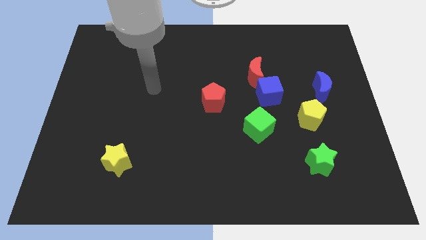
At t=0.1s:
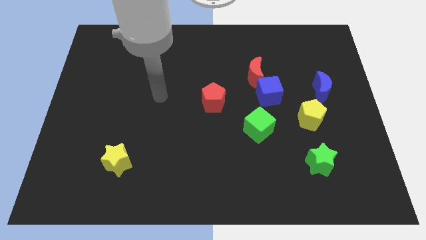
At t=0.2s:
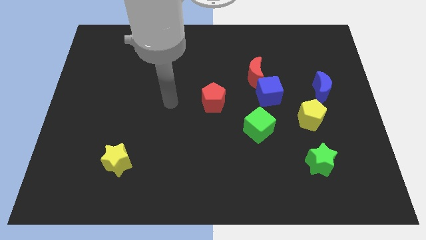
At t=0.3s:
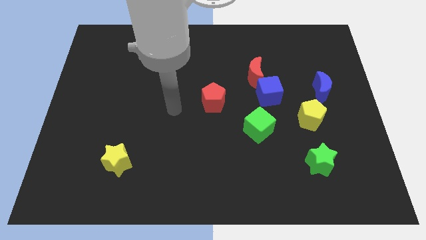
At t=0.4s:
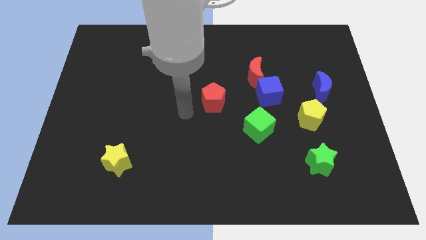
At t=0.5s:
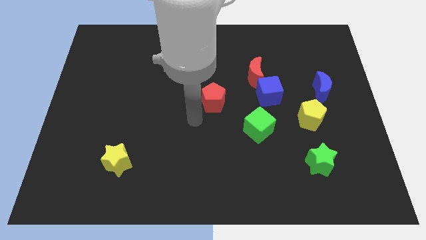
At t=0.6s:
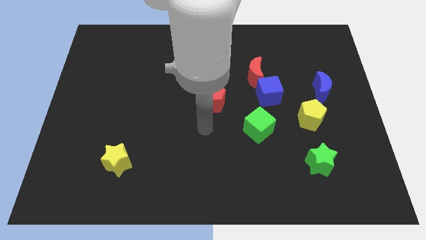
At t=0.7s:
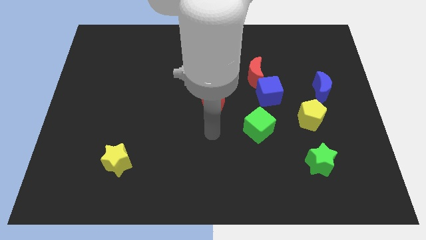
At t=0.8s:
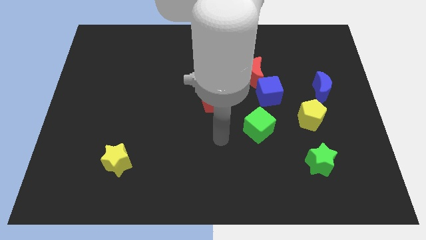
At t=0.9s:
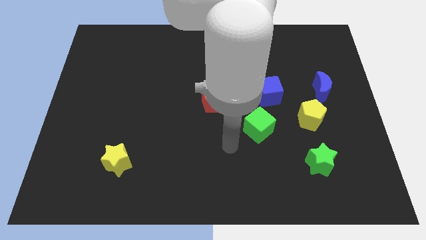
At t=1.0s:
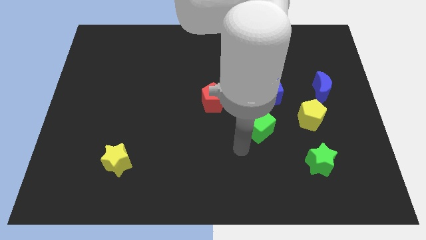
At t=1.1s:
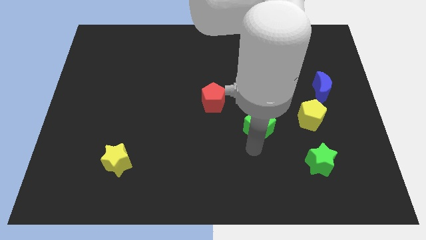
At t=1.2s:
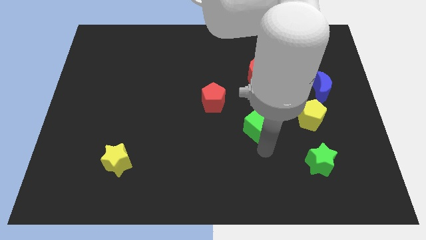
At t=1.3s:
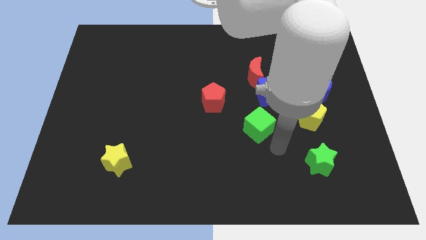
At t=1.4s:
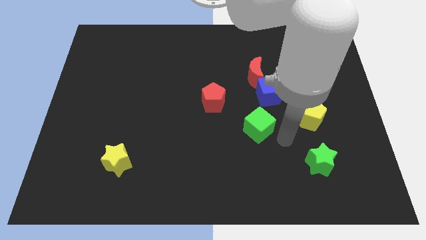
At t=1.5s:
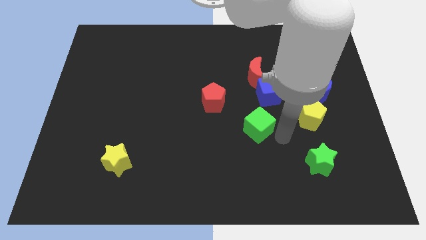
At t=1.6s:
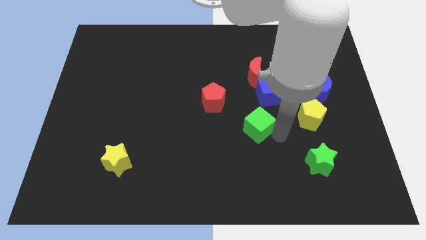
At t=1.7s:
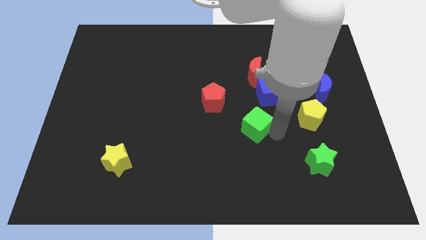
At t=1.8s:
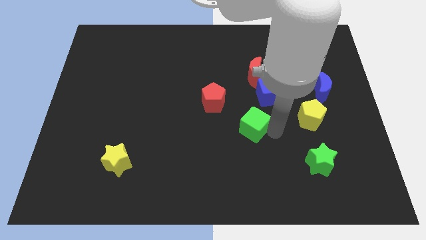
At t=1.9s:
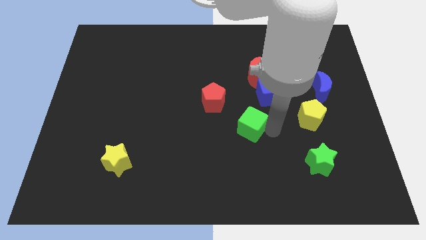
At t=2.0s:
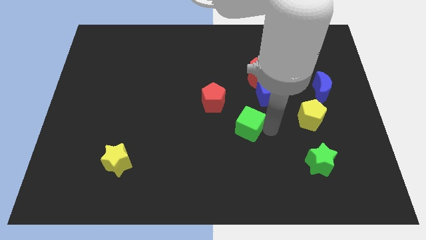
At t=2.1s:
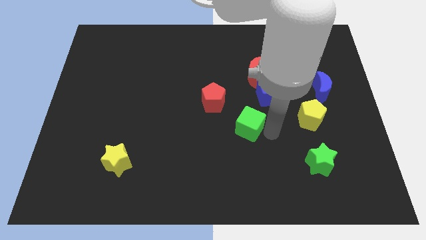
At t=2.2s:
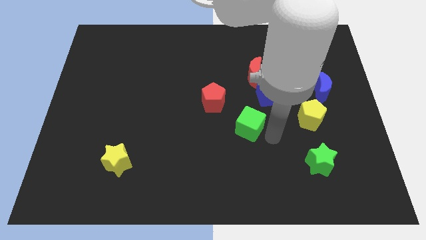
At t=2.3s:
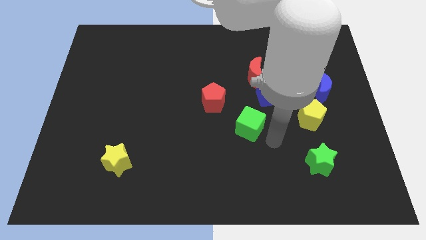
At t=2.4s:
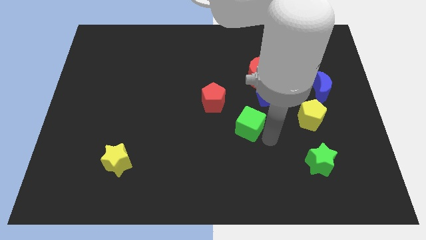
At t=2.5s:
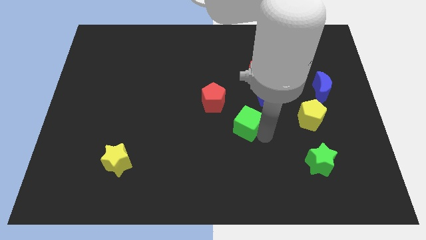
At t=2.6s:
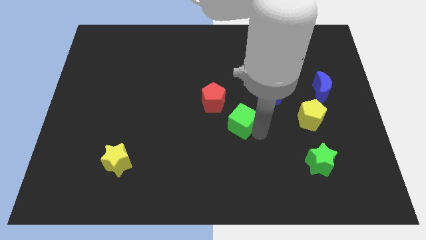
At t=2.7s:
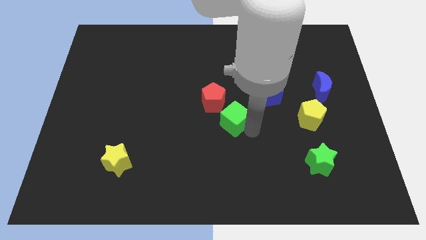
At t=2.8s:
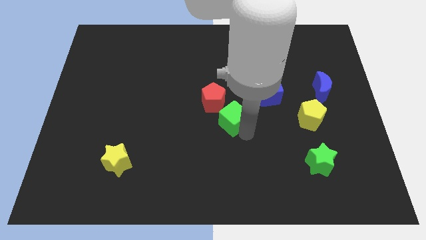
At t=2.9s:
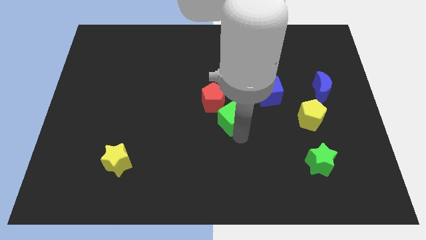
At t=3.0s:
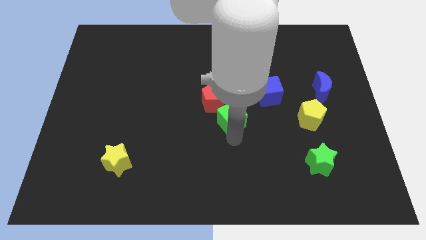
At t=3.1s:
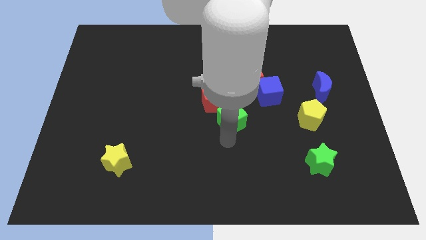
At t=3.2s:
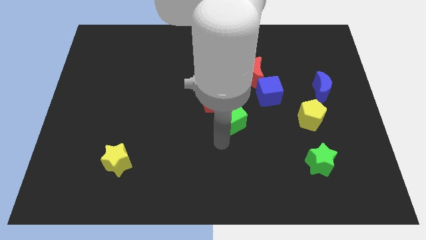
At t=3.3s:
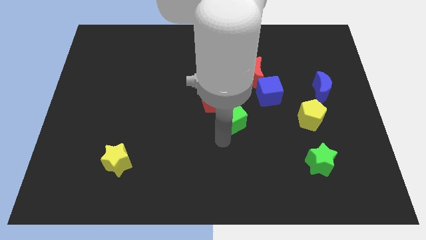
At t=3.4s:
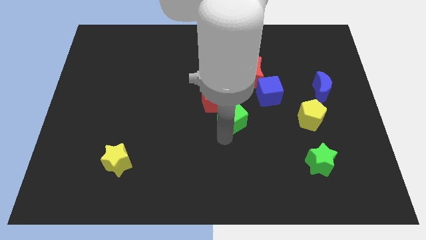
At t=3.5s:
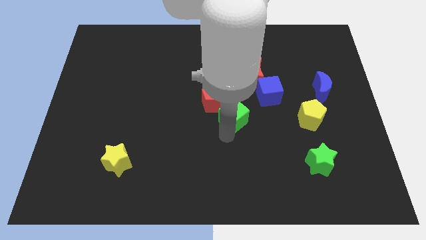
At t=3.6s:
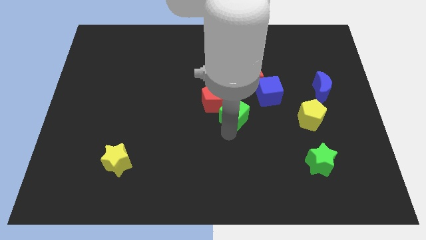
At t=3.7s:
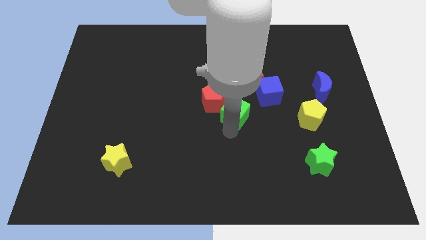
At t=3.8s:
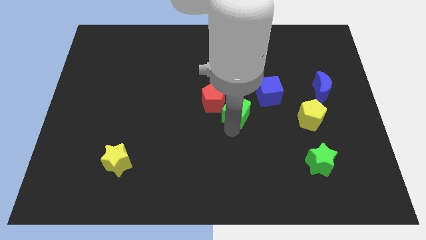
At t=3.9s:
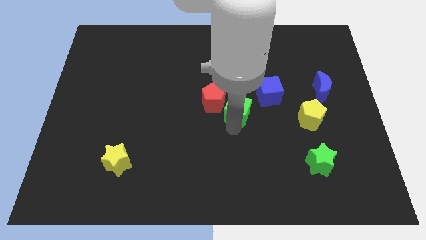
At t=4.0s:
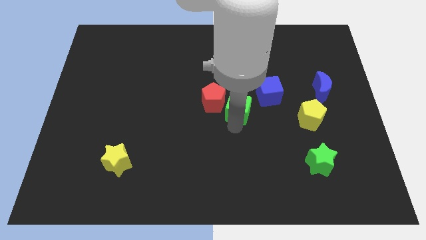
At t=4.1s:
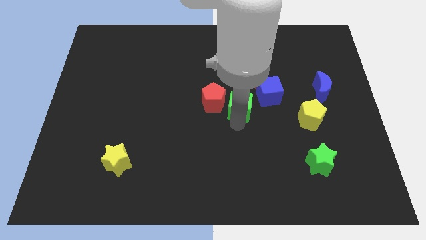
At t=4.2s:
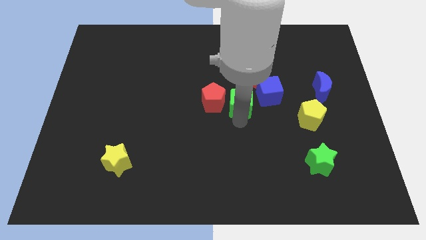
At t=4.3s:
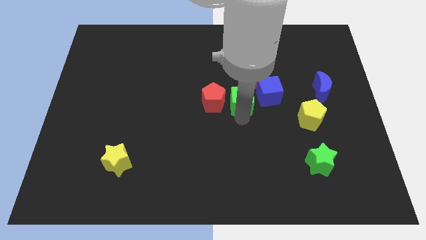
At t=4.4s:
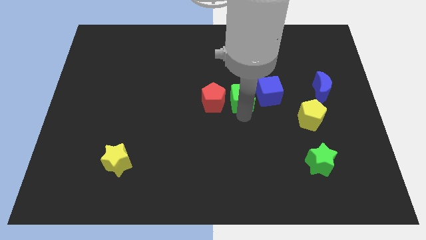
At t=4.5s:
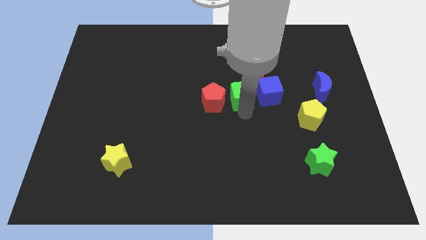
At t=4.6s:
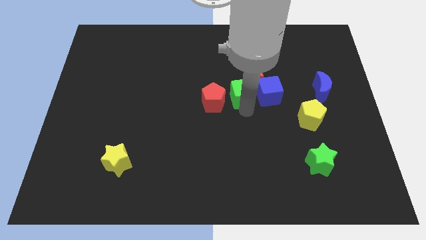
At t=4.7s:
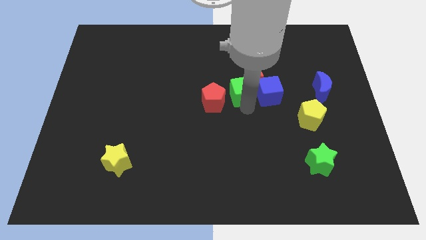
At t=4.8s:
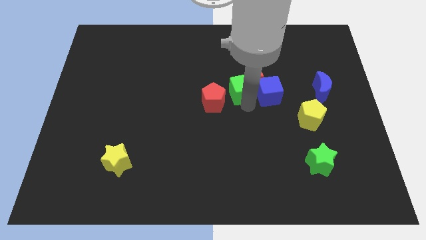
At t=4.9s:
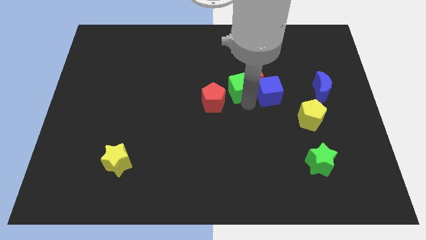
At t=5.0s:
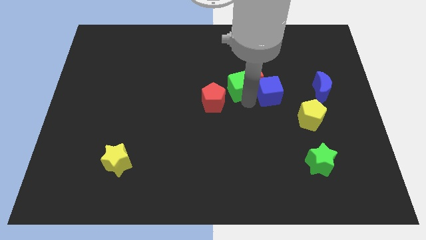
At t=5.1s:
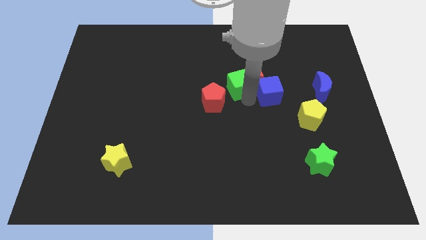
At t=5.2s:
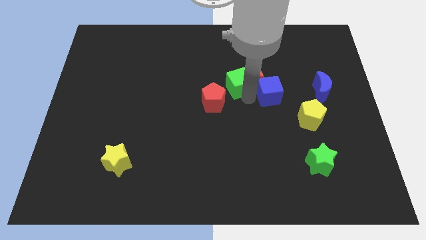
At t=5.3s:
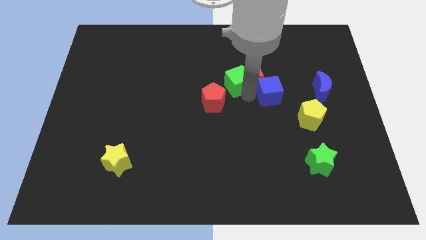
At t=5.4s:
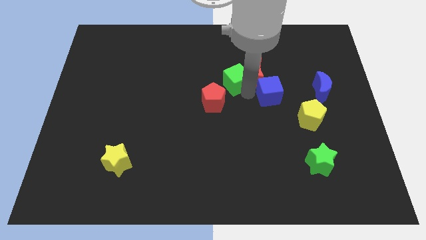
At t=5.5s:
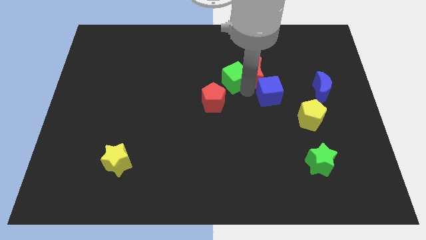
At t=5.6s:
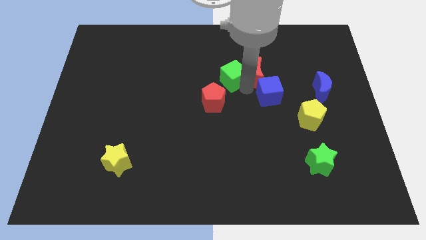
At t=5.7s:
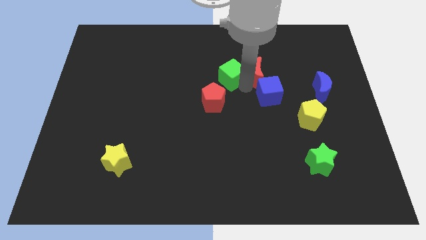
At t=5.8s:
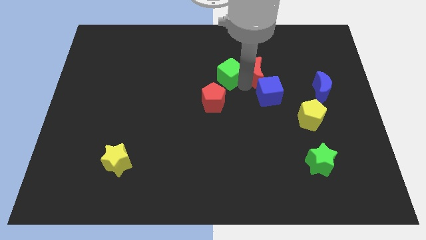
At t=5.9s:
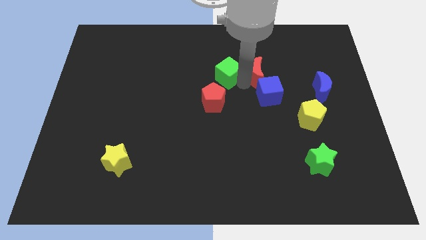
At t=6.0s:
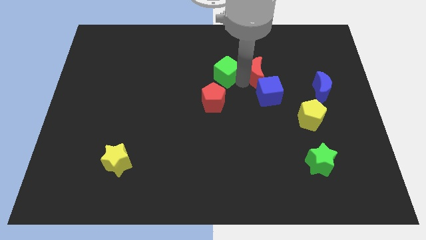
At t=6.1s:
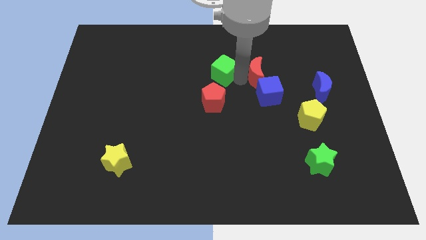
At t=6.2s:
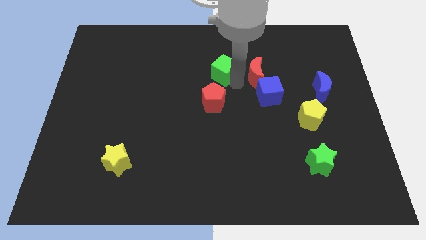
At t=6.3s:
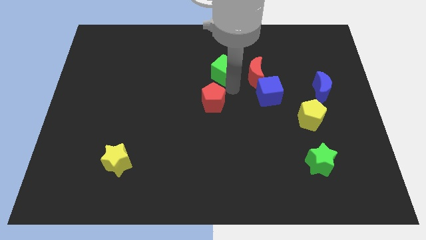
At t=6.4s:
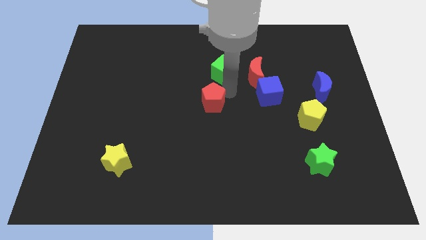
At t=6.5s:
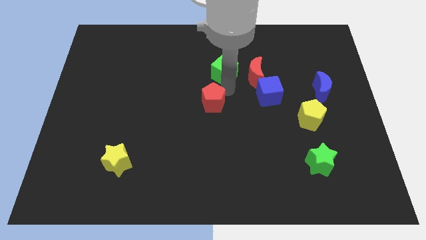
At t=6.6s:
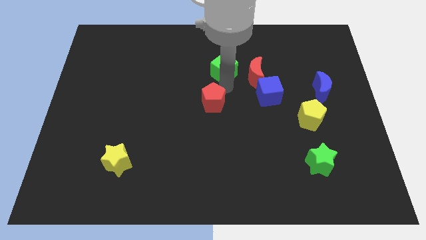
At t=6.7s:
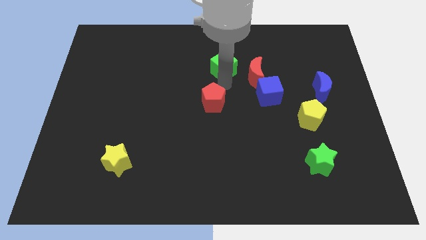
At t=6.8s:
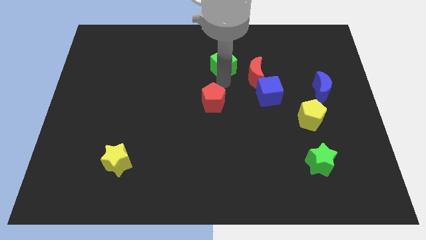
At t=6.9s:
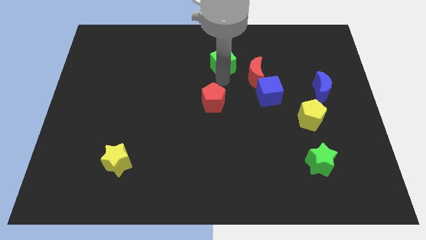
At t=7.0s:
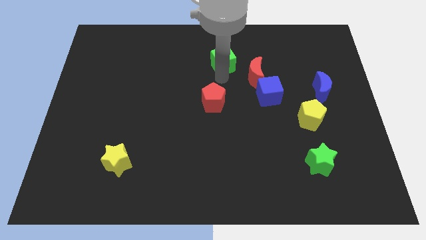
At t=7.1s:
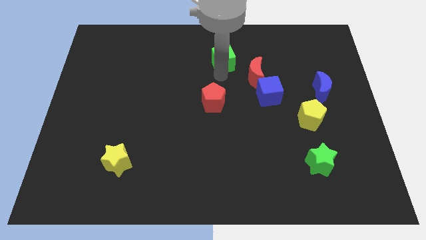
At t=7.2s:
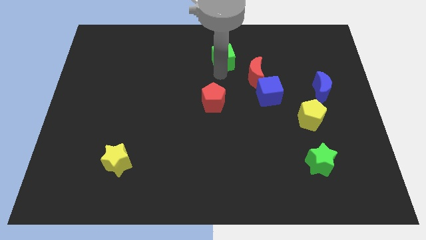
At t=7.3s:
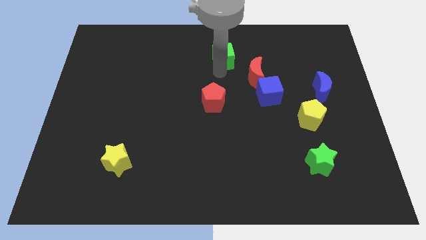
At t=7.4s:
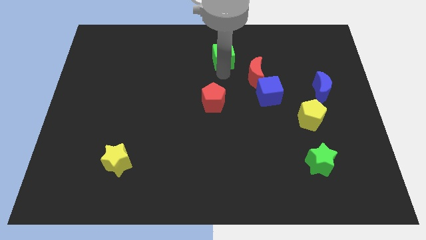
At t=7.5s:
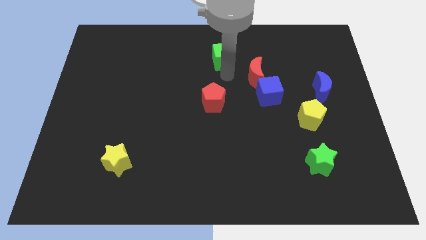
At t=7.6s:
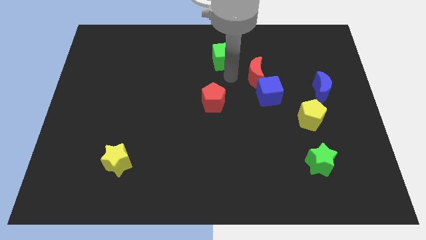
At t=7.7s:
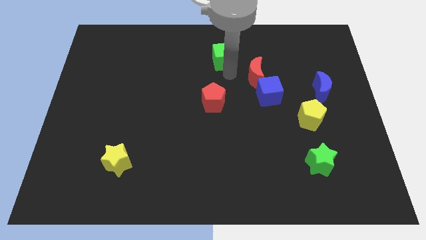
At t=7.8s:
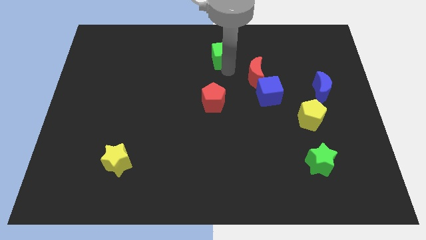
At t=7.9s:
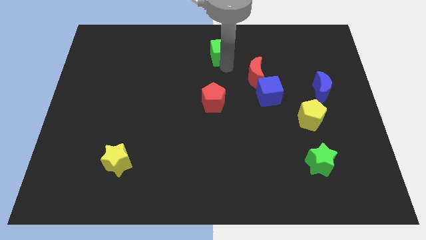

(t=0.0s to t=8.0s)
put the green cube to the towards your base
